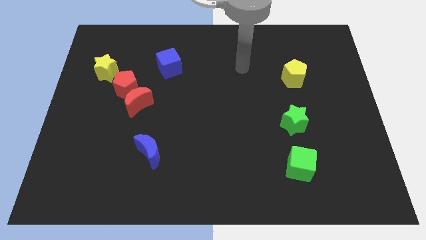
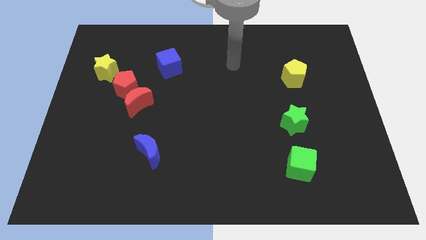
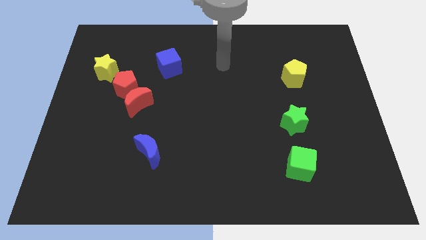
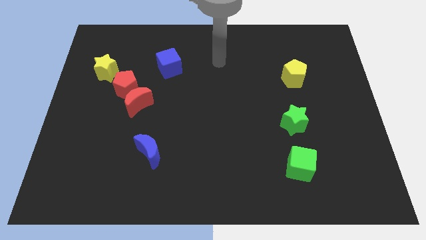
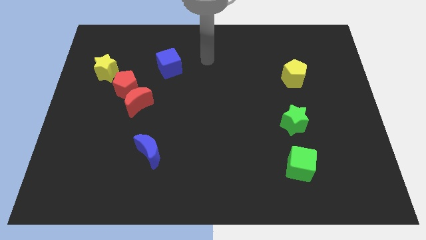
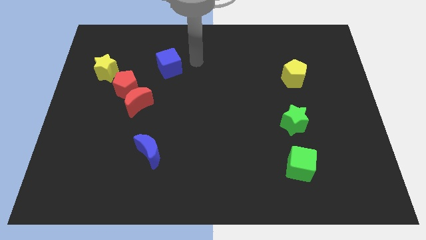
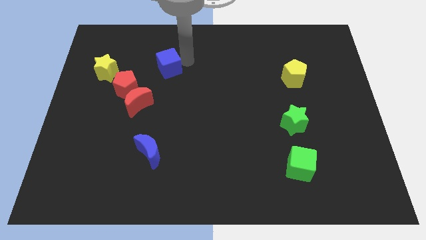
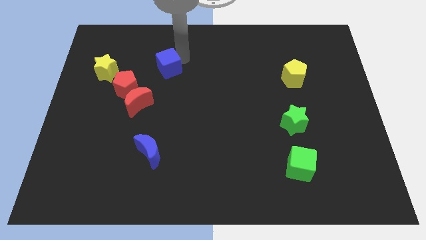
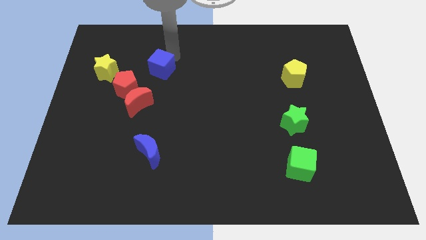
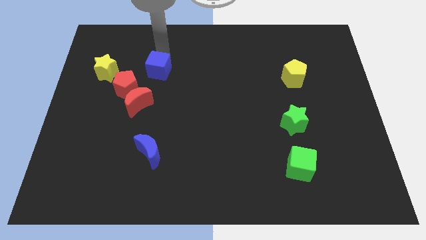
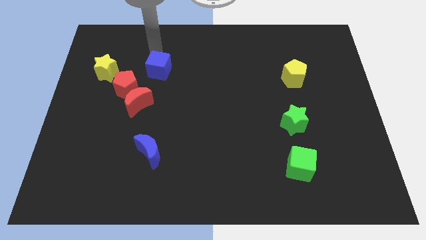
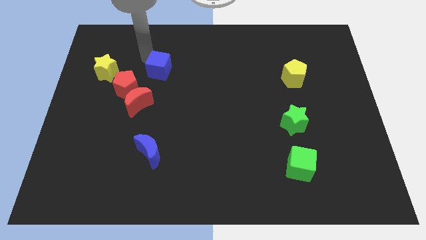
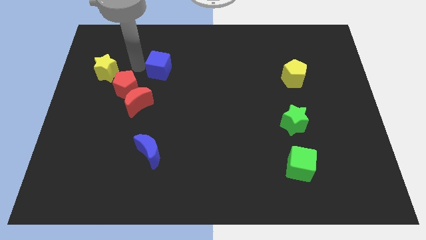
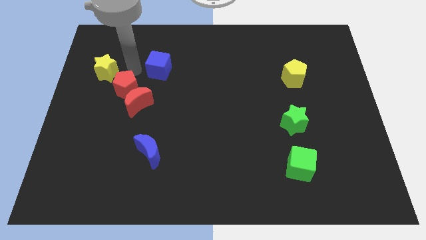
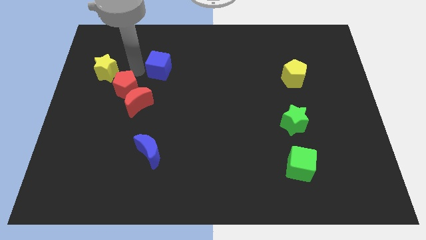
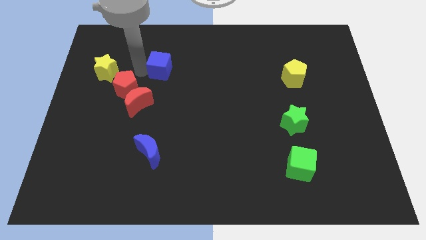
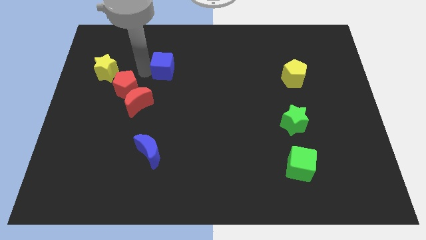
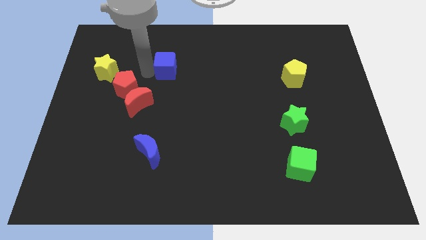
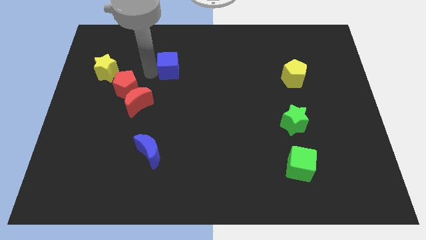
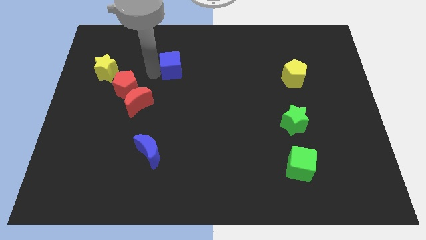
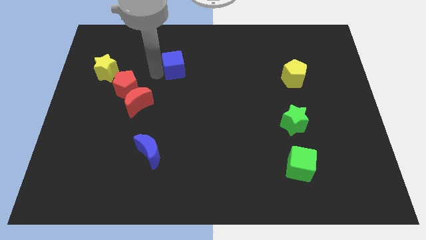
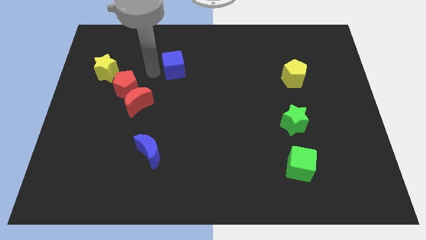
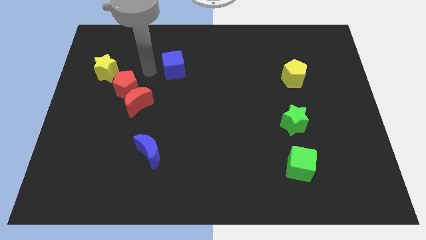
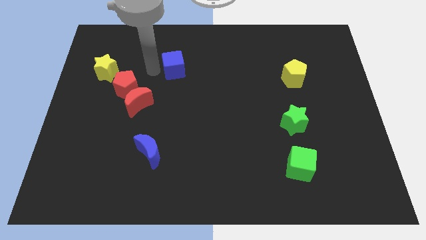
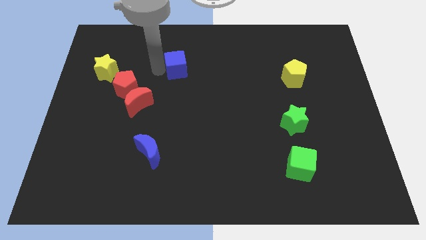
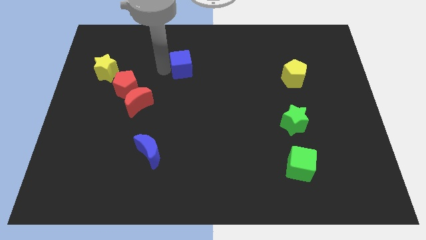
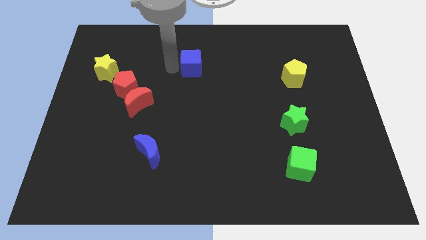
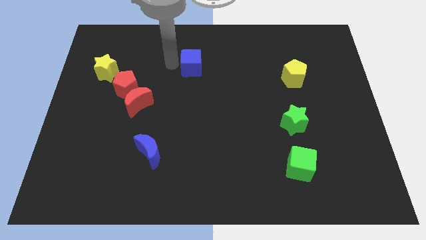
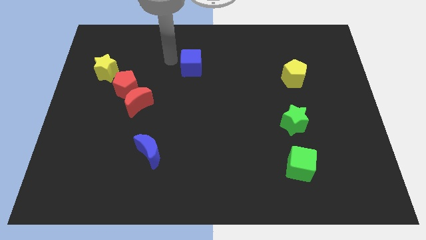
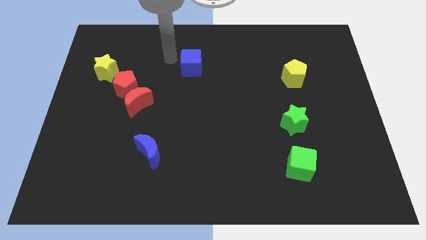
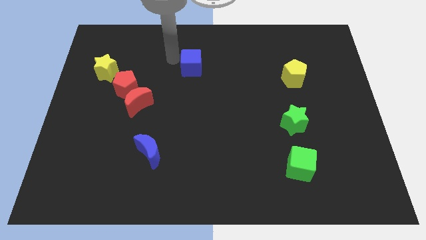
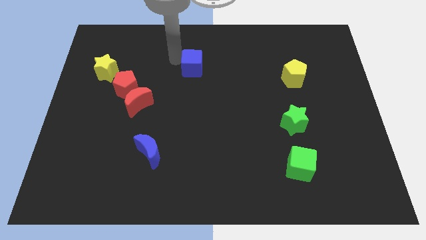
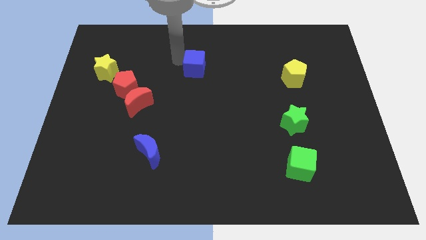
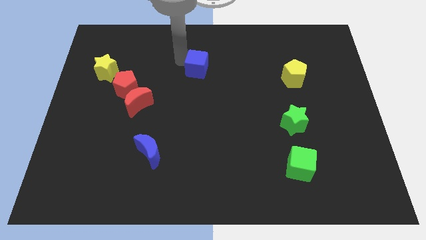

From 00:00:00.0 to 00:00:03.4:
slide the blue cube somewhat to the right

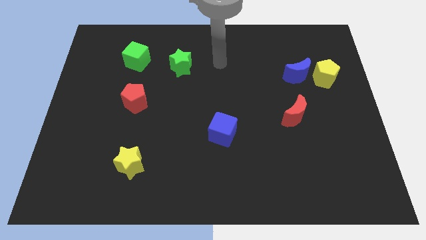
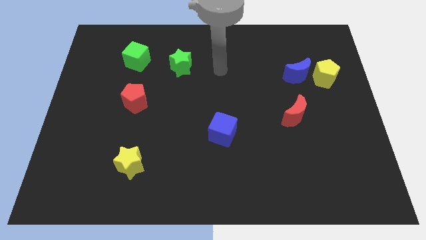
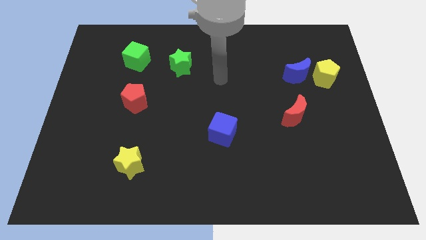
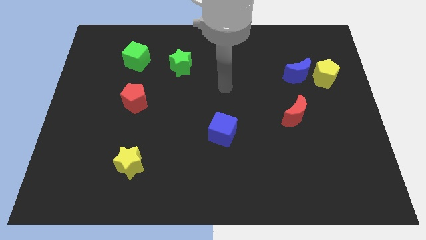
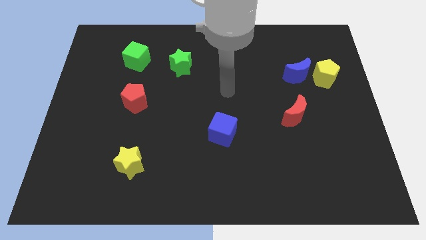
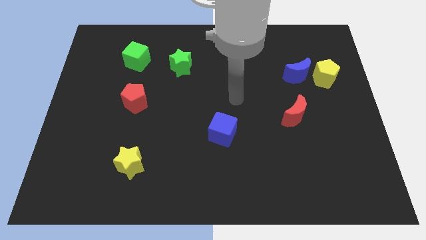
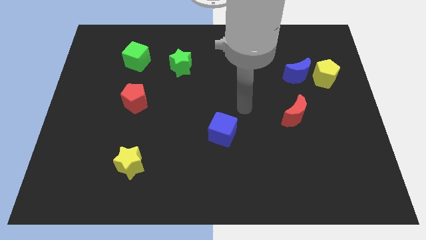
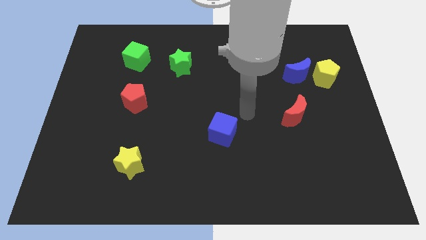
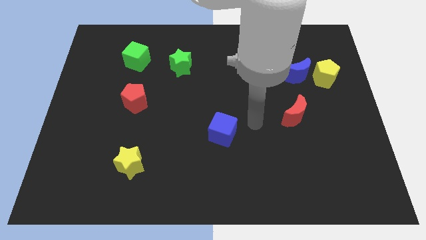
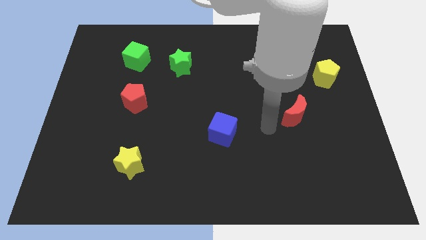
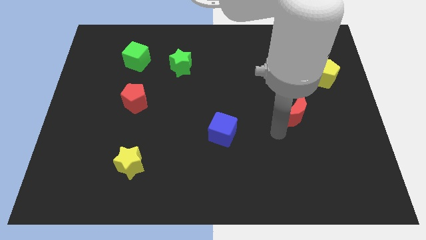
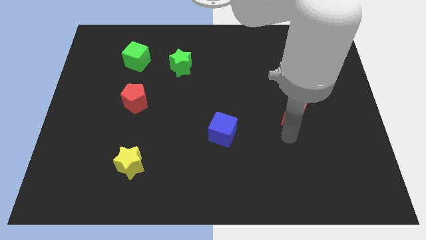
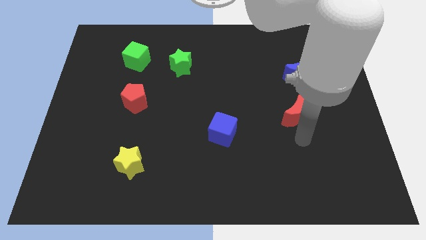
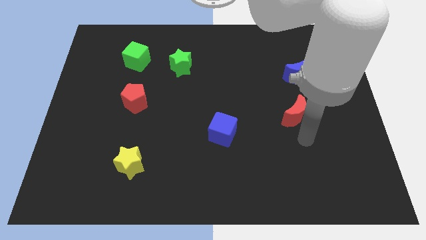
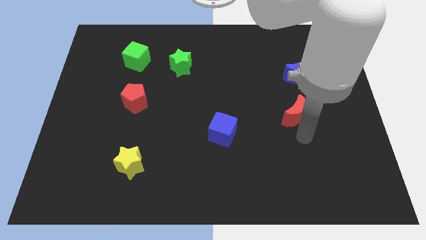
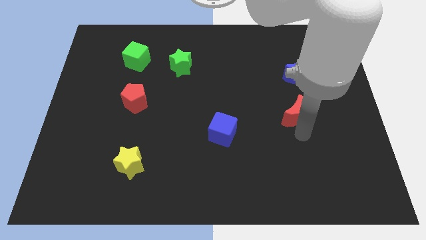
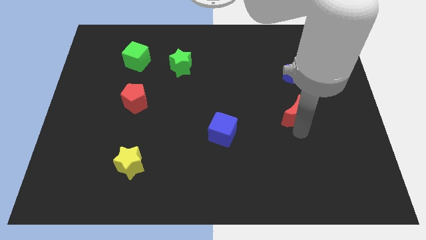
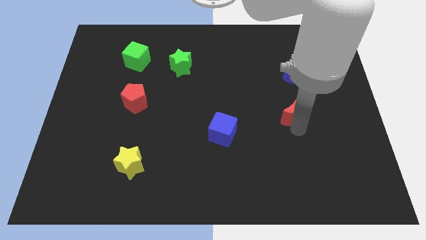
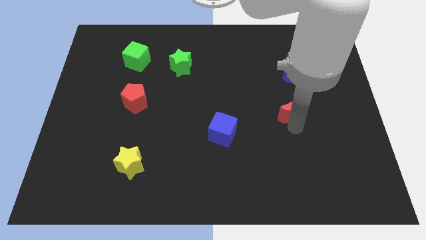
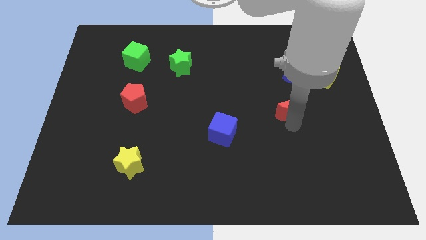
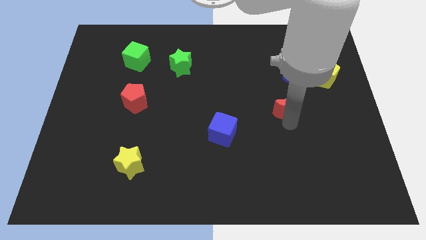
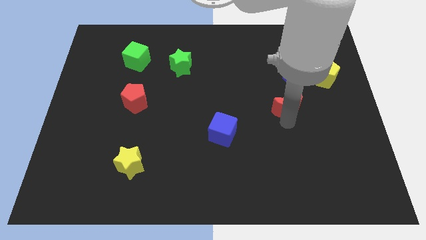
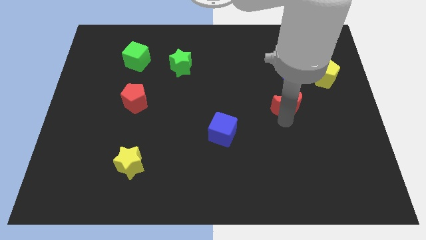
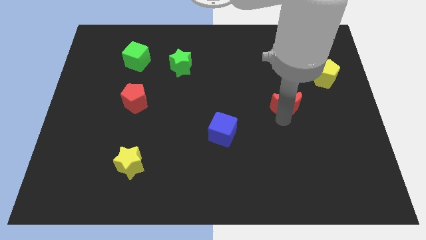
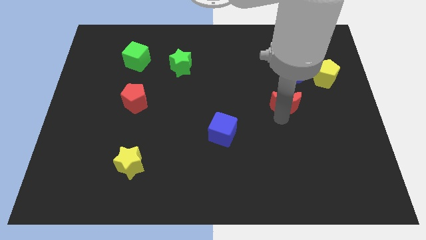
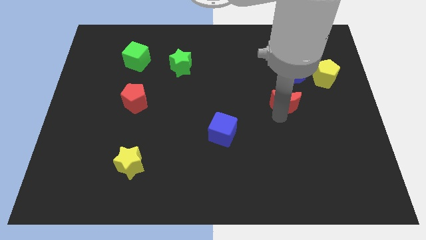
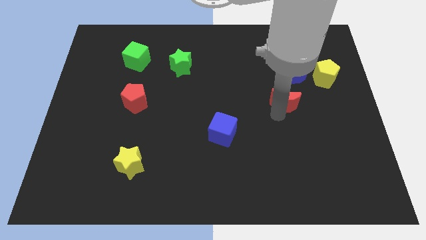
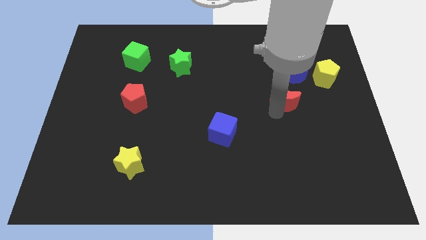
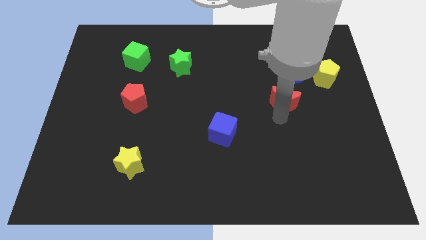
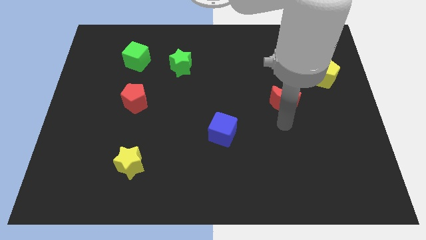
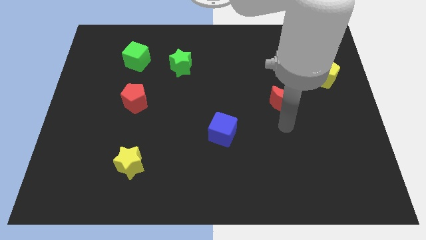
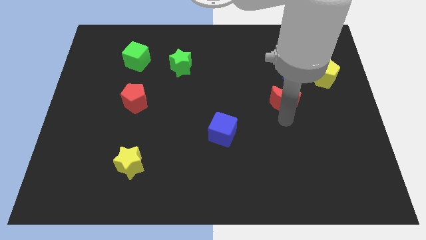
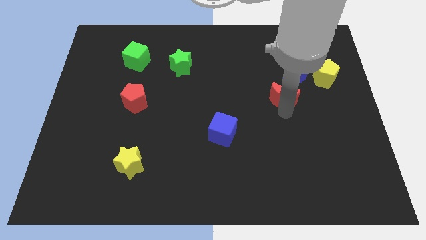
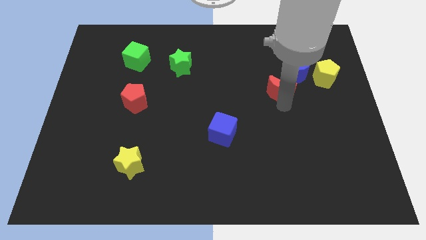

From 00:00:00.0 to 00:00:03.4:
slide the red moon up somewhat

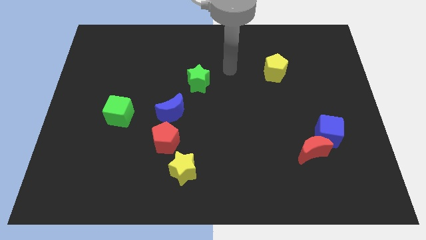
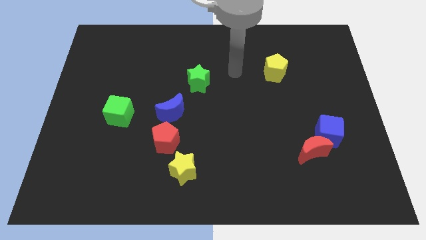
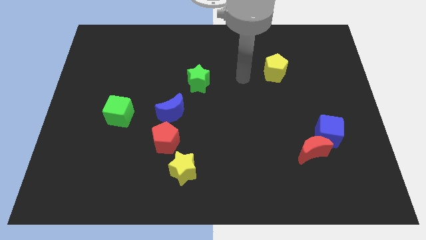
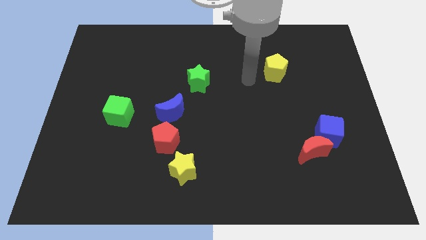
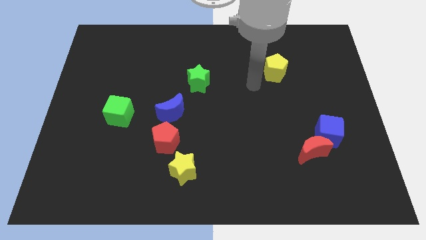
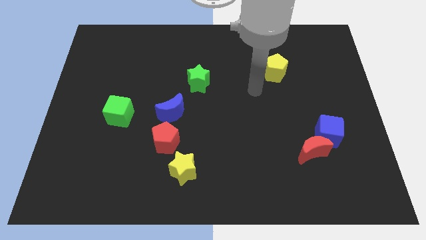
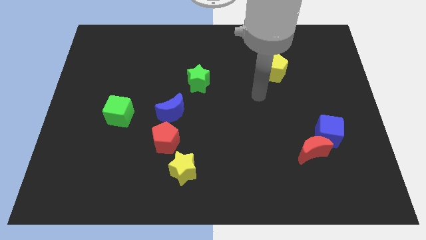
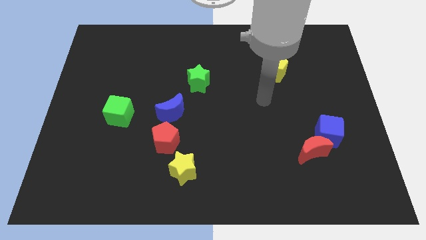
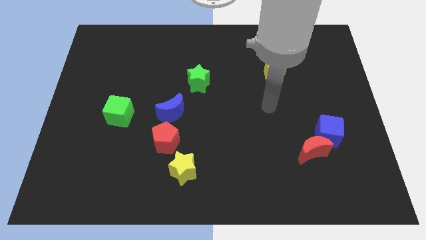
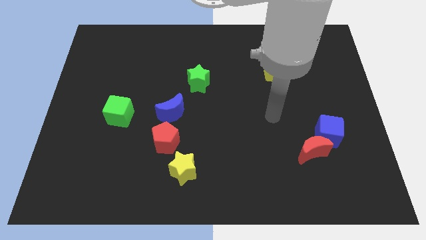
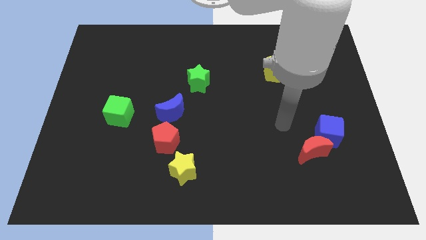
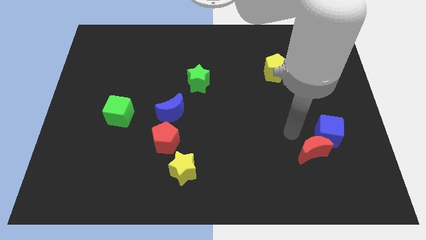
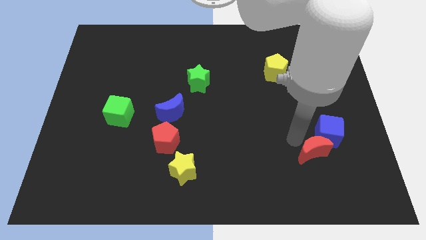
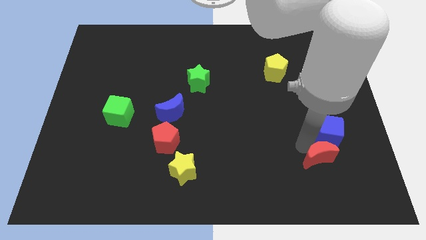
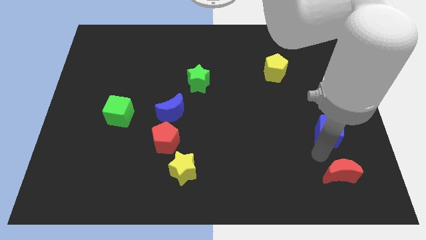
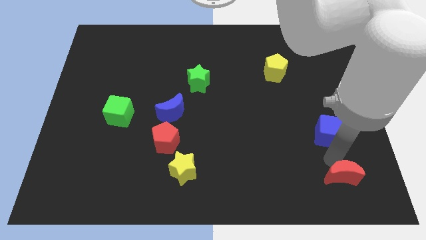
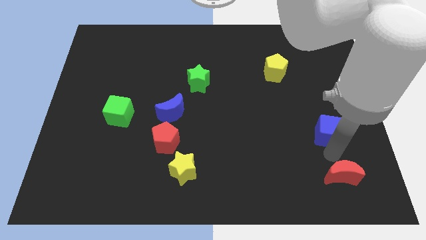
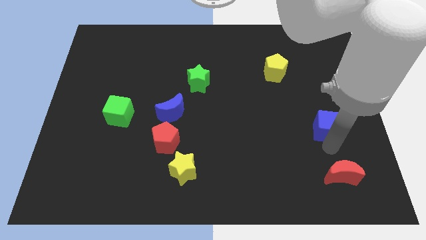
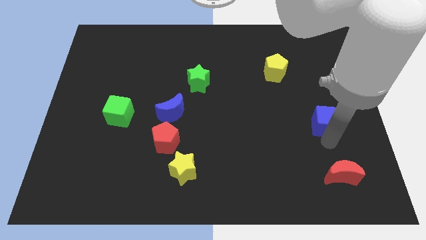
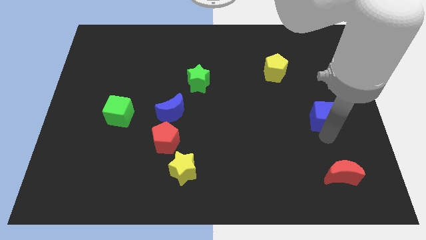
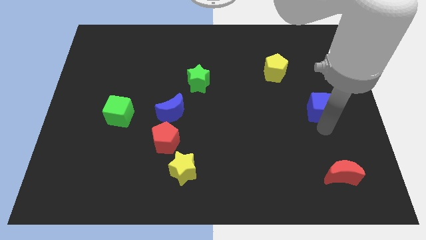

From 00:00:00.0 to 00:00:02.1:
slide the blue cube a bit upwards
